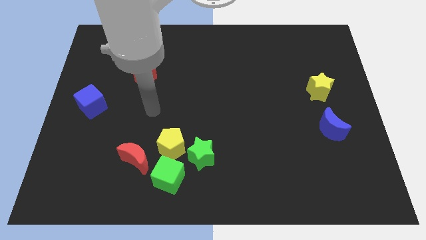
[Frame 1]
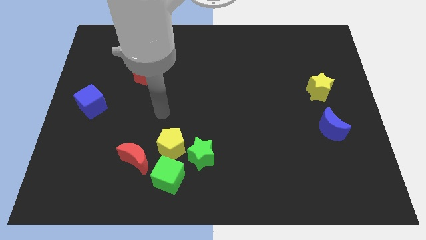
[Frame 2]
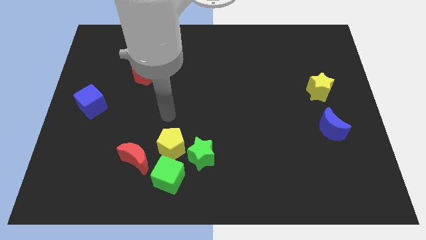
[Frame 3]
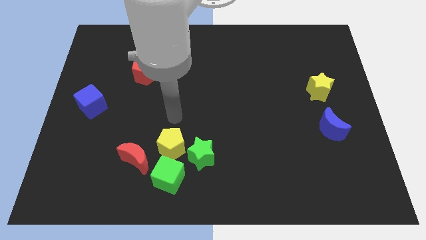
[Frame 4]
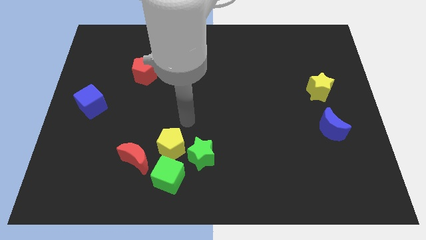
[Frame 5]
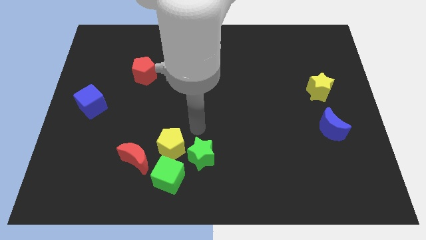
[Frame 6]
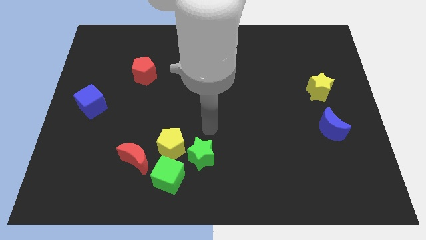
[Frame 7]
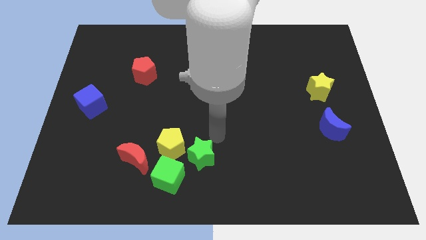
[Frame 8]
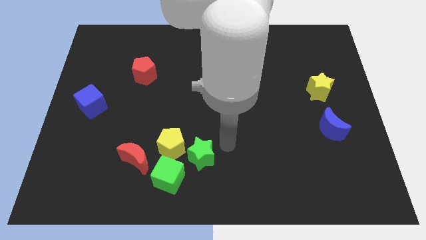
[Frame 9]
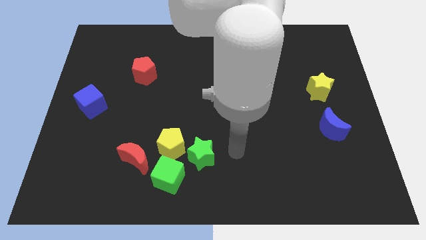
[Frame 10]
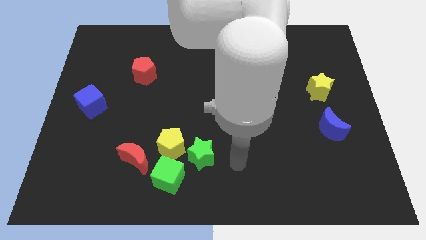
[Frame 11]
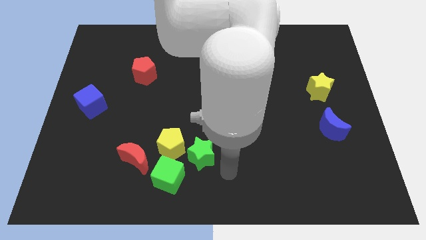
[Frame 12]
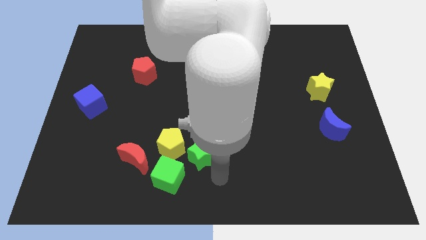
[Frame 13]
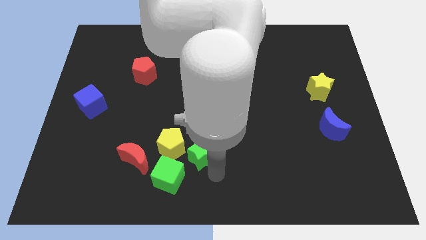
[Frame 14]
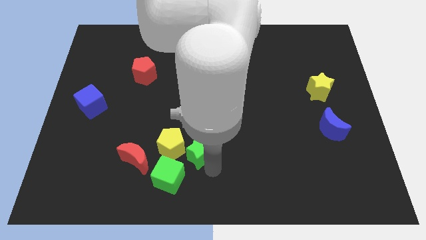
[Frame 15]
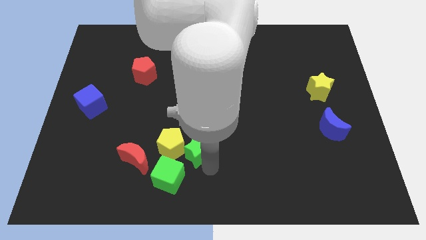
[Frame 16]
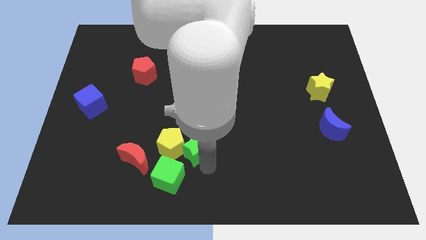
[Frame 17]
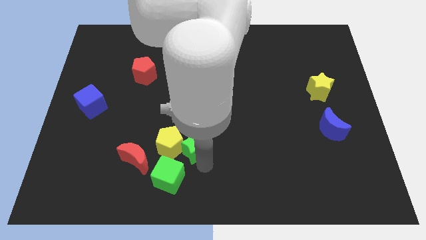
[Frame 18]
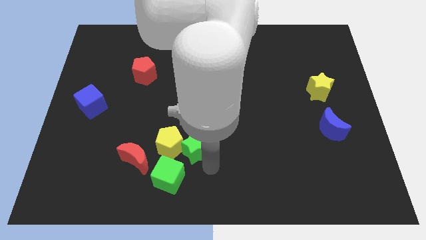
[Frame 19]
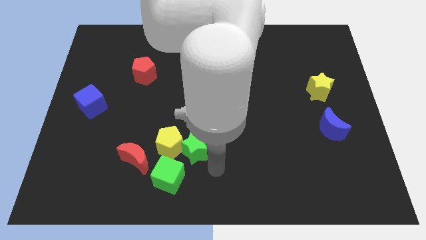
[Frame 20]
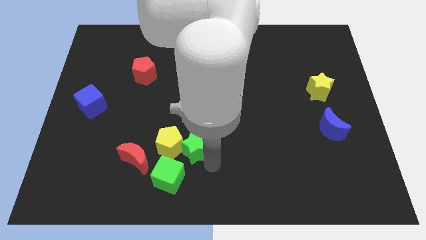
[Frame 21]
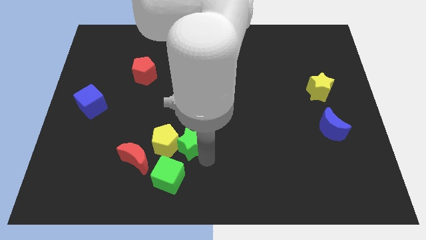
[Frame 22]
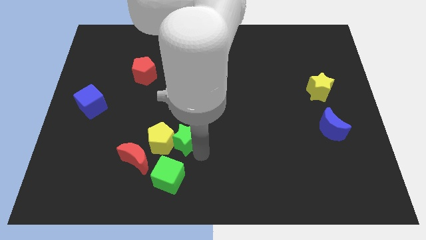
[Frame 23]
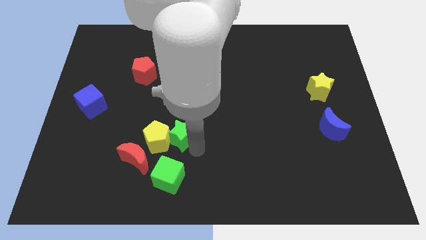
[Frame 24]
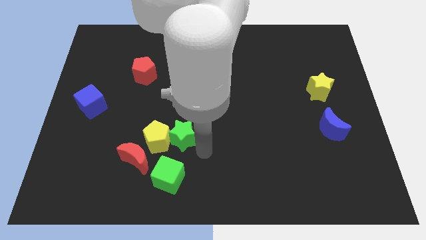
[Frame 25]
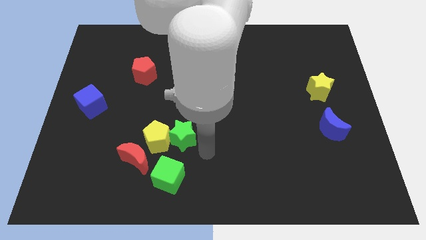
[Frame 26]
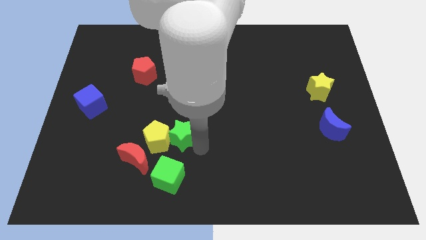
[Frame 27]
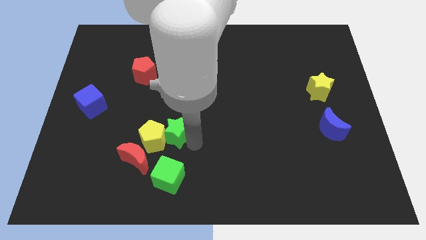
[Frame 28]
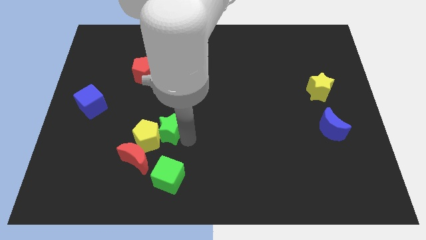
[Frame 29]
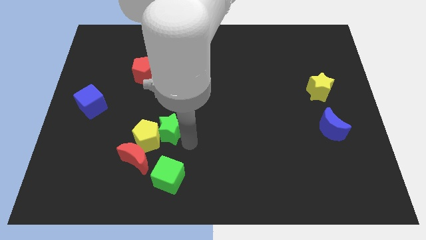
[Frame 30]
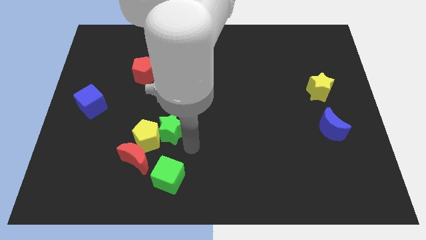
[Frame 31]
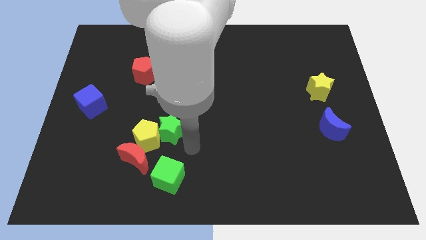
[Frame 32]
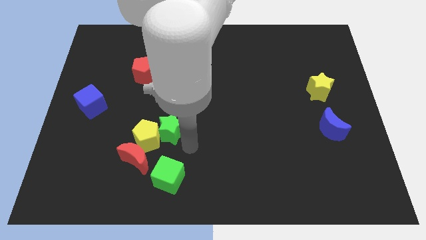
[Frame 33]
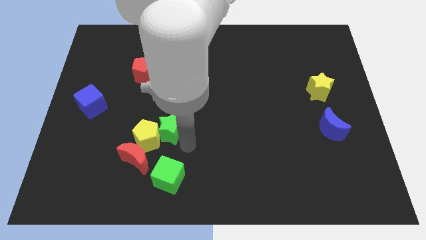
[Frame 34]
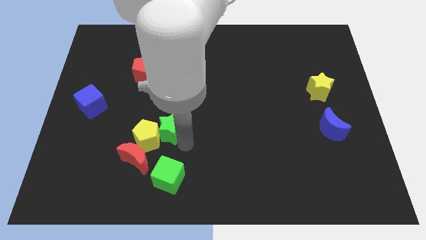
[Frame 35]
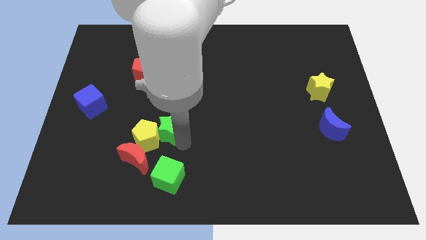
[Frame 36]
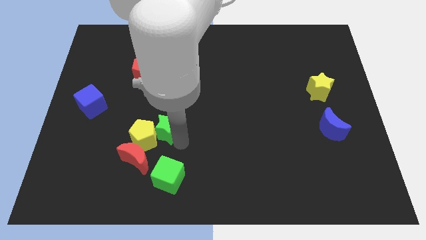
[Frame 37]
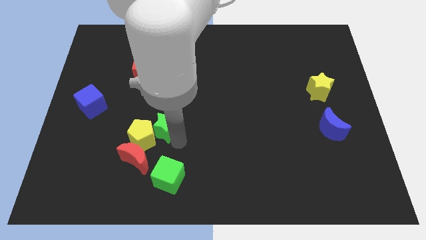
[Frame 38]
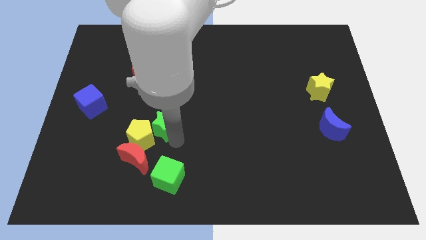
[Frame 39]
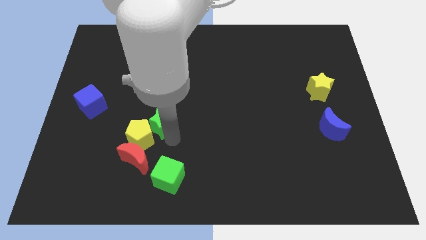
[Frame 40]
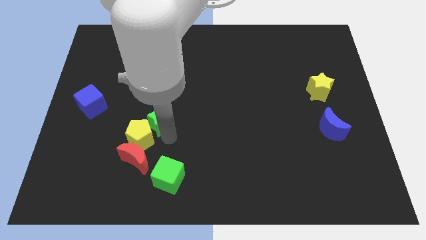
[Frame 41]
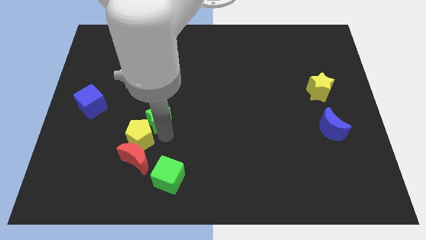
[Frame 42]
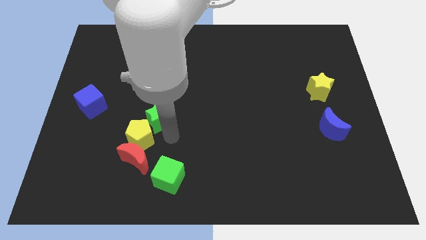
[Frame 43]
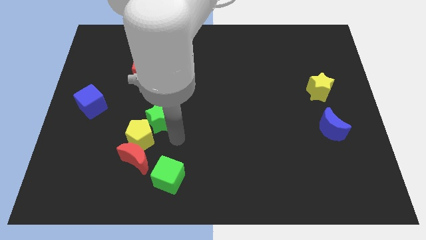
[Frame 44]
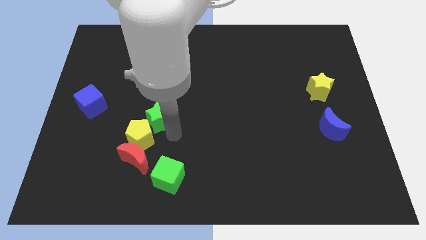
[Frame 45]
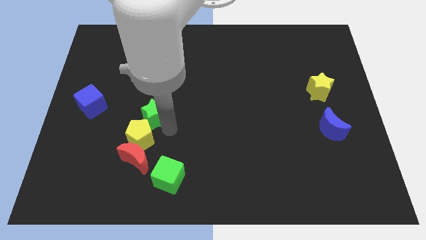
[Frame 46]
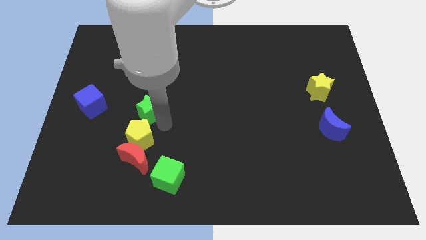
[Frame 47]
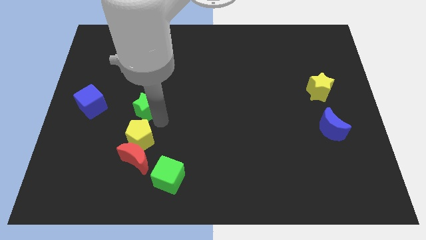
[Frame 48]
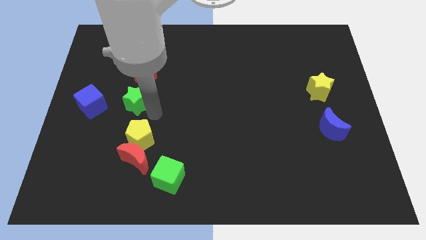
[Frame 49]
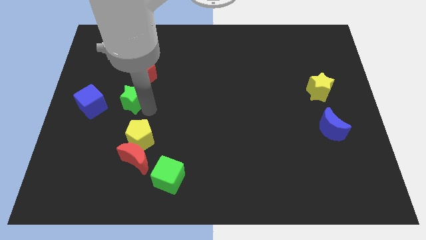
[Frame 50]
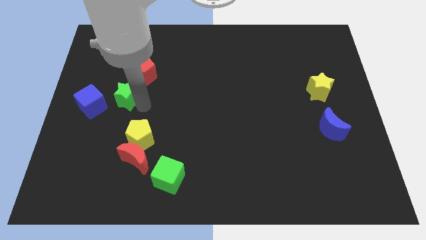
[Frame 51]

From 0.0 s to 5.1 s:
slide the green star to the top right side of the blue cube

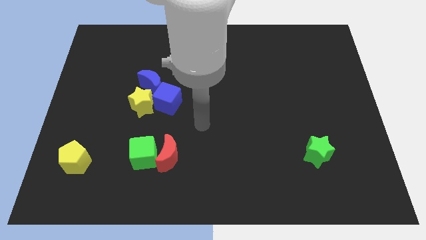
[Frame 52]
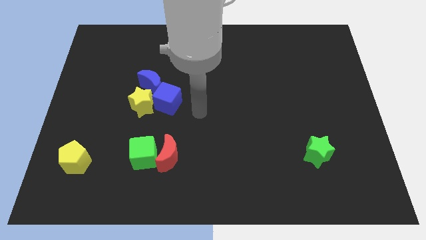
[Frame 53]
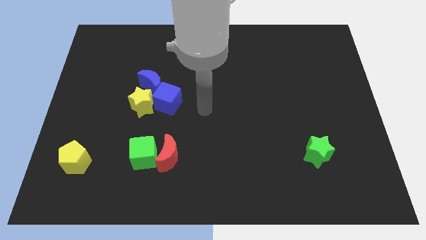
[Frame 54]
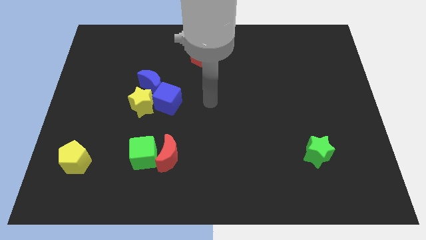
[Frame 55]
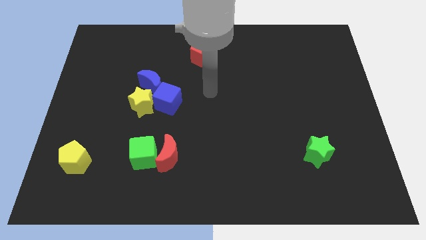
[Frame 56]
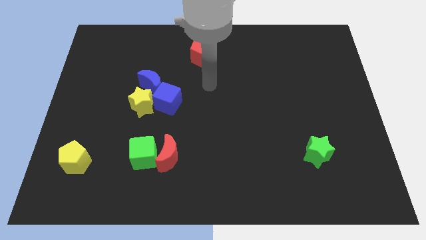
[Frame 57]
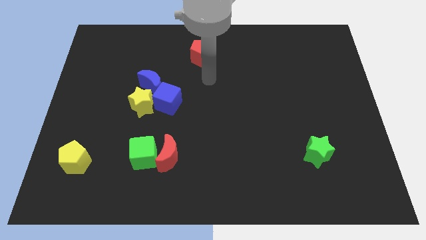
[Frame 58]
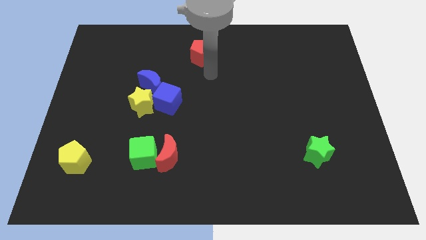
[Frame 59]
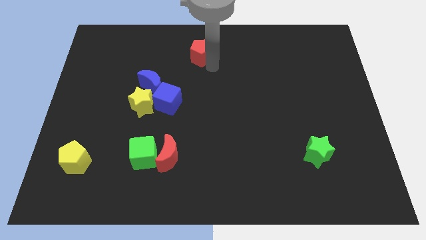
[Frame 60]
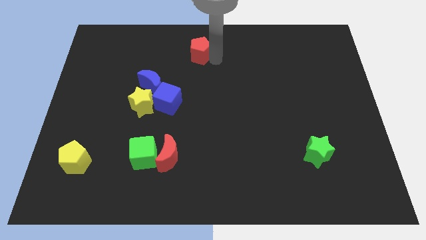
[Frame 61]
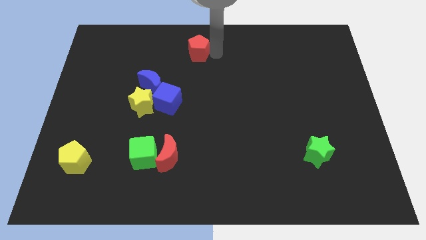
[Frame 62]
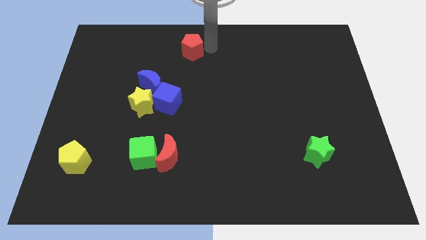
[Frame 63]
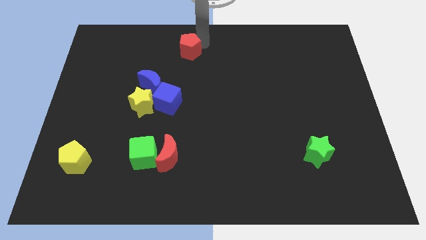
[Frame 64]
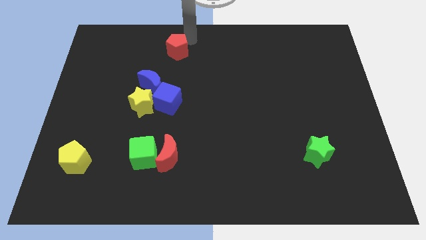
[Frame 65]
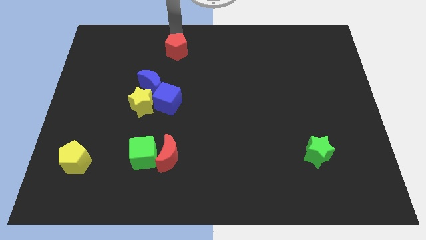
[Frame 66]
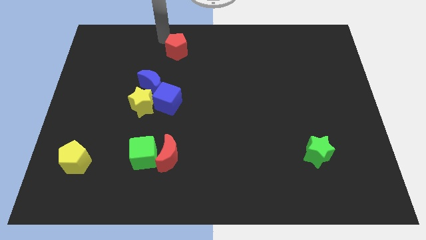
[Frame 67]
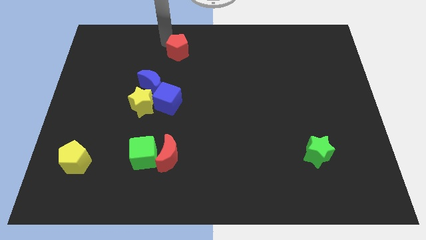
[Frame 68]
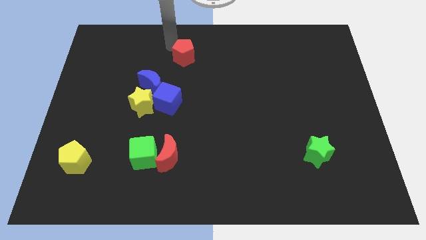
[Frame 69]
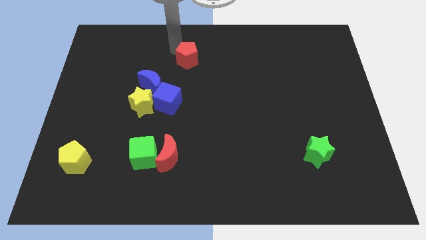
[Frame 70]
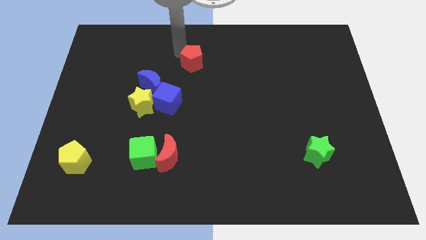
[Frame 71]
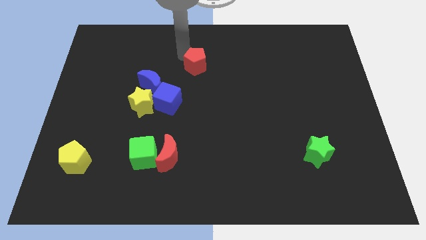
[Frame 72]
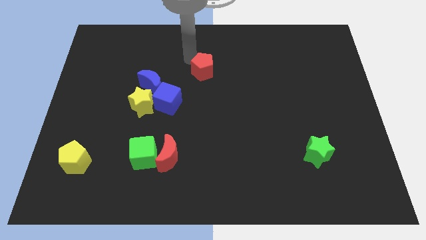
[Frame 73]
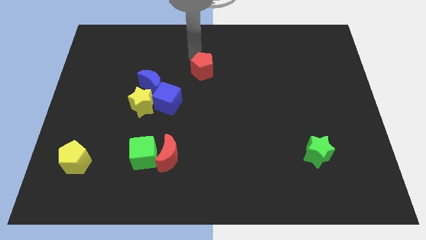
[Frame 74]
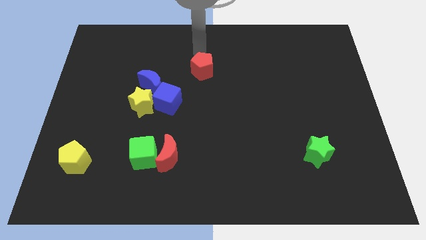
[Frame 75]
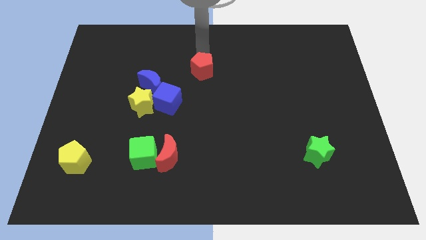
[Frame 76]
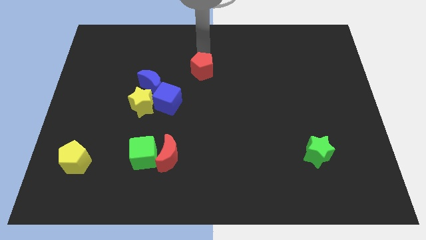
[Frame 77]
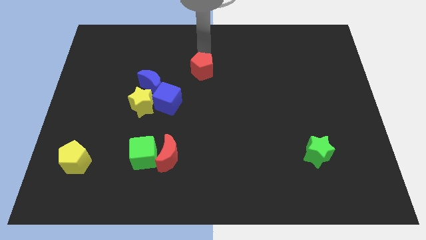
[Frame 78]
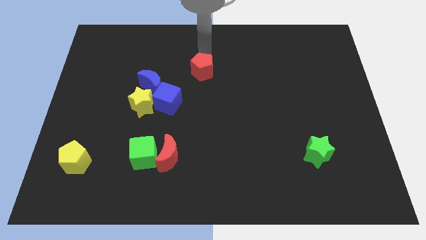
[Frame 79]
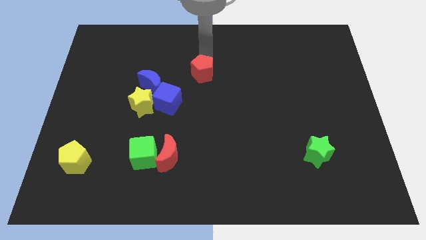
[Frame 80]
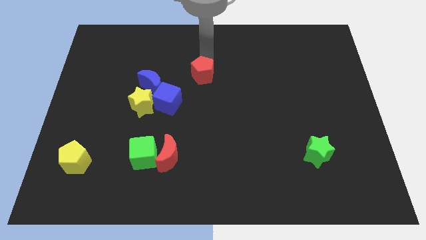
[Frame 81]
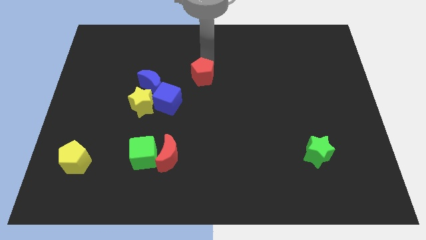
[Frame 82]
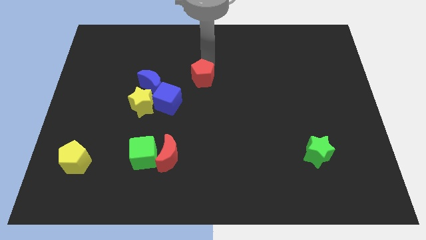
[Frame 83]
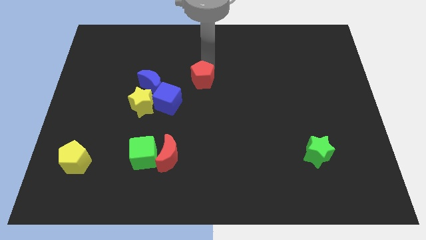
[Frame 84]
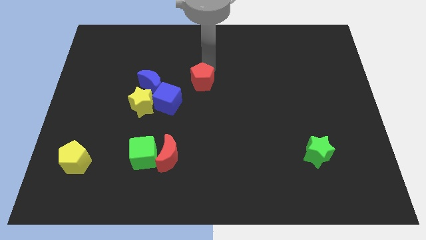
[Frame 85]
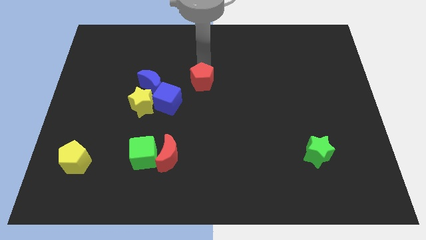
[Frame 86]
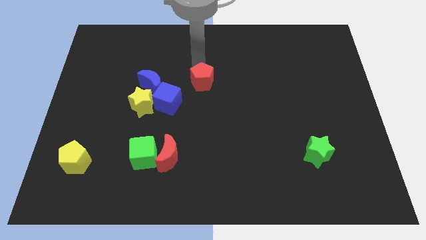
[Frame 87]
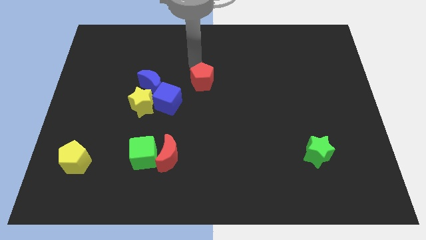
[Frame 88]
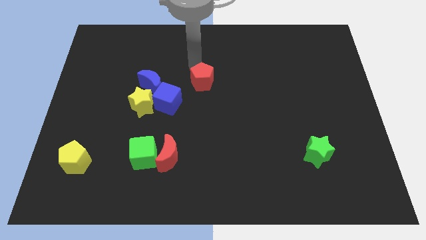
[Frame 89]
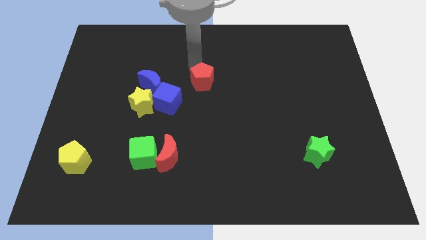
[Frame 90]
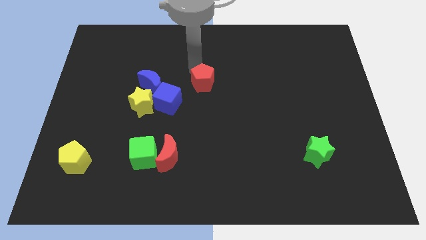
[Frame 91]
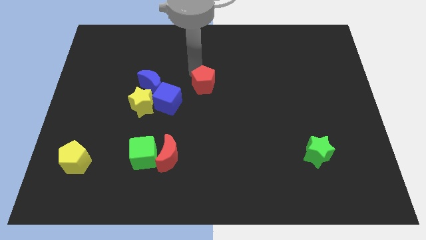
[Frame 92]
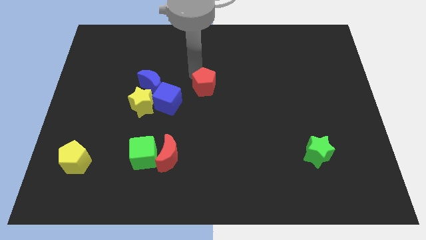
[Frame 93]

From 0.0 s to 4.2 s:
slide the red pentagon to the right side of the blue cube
